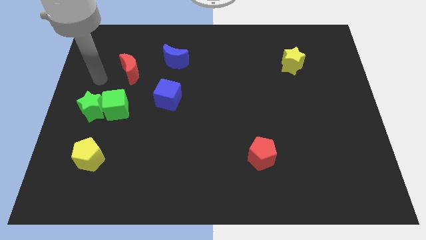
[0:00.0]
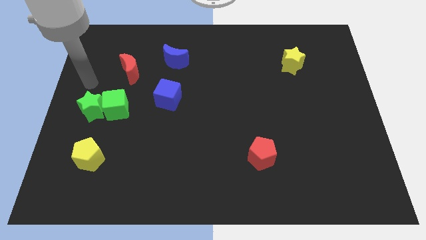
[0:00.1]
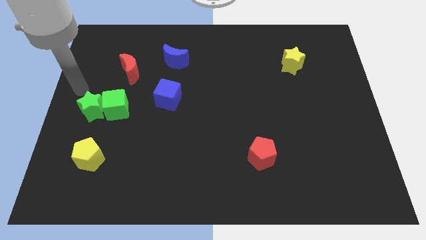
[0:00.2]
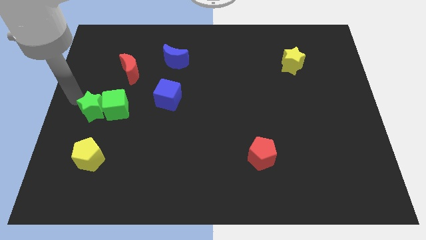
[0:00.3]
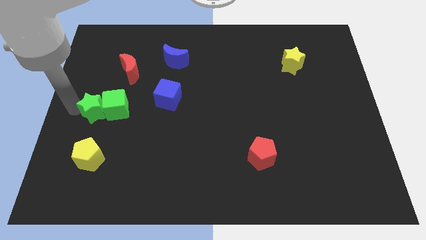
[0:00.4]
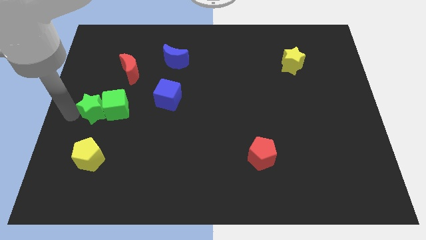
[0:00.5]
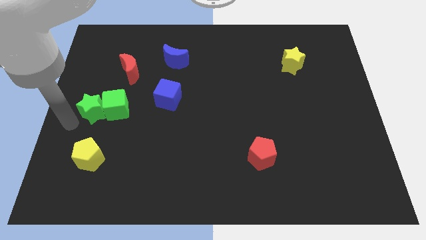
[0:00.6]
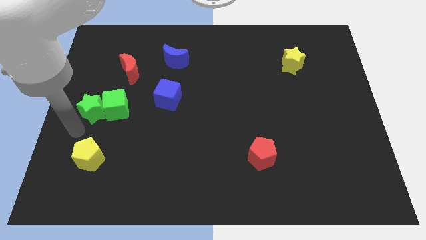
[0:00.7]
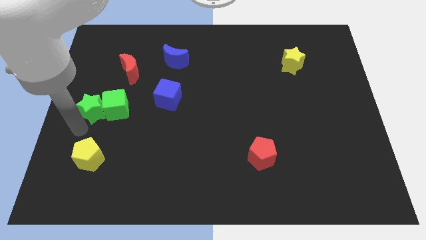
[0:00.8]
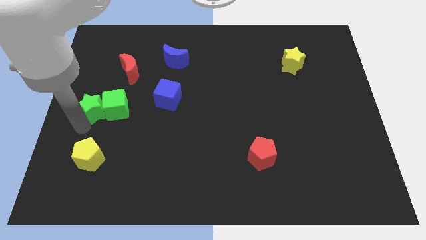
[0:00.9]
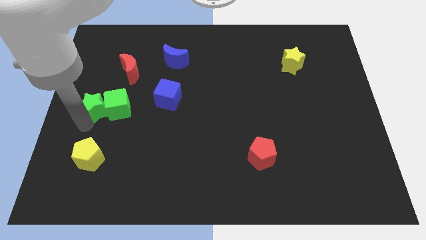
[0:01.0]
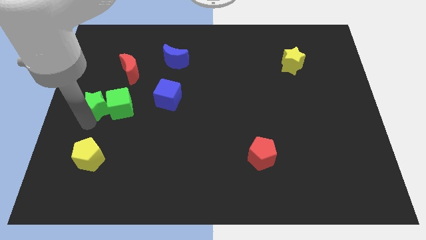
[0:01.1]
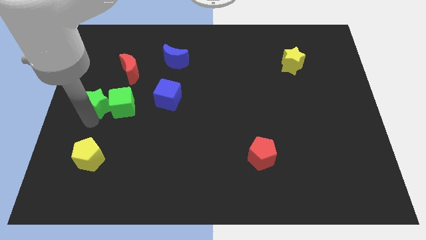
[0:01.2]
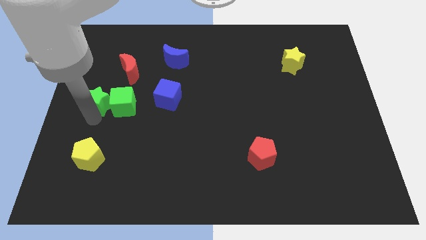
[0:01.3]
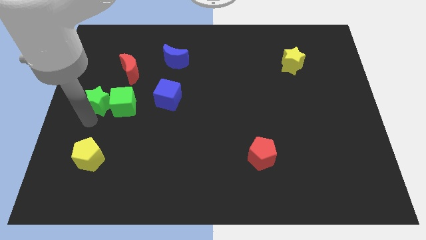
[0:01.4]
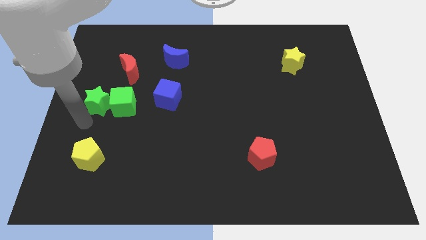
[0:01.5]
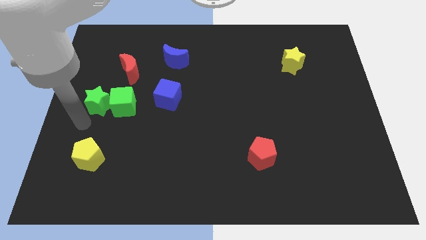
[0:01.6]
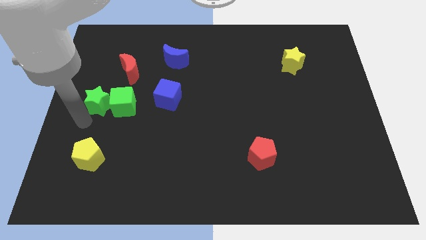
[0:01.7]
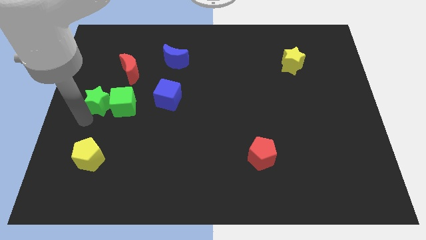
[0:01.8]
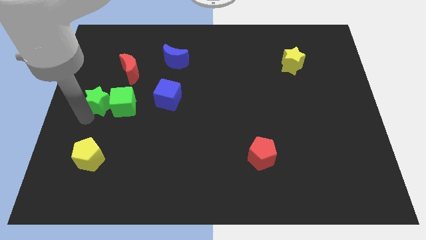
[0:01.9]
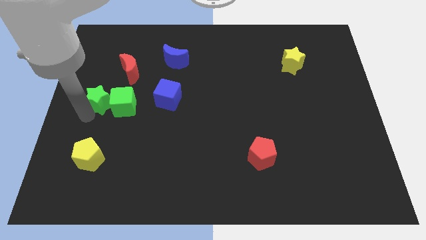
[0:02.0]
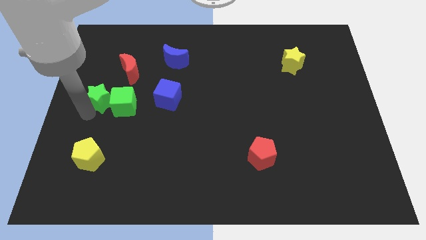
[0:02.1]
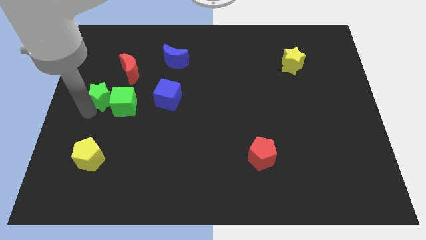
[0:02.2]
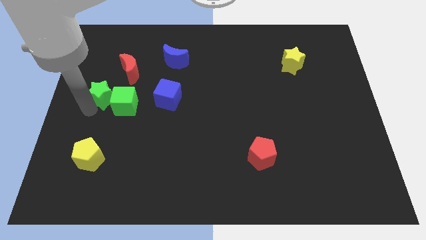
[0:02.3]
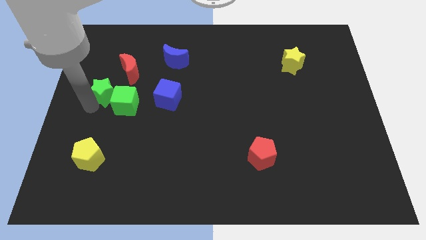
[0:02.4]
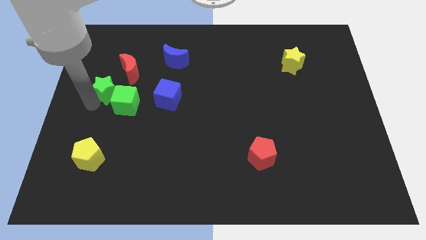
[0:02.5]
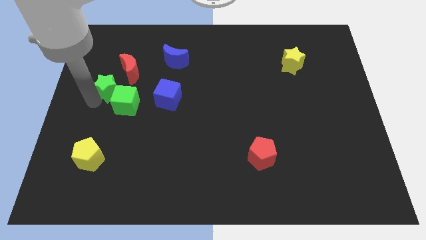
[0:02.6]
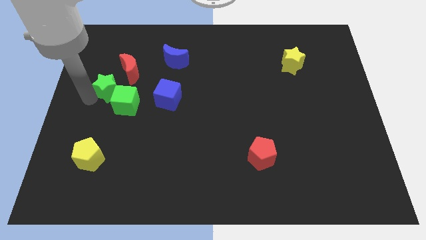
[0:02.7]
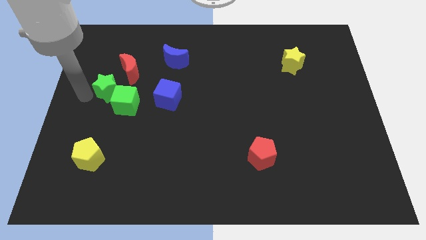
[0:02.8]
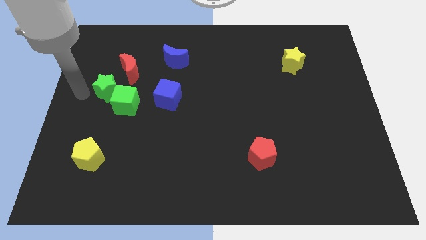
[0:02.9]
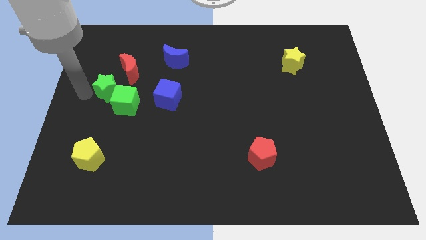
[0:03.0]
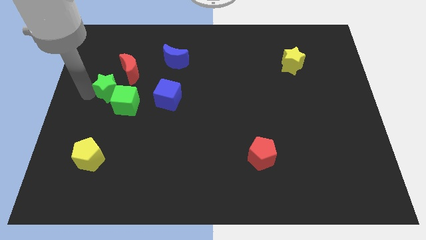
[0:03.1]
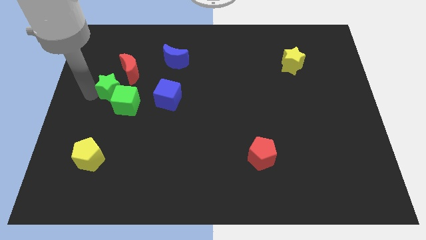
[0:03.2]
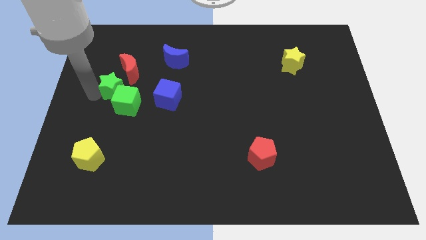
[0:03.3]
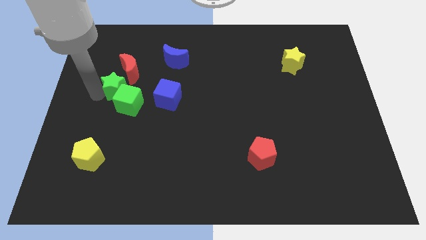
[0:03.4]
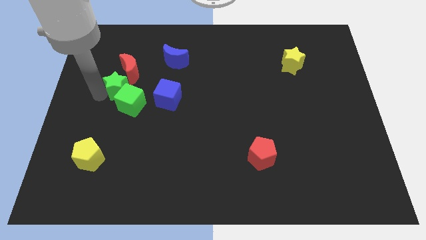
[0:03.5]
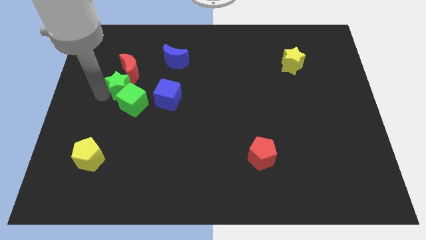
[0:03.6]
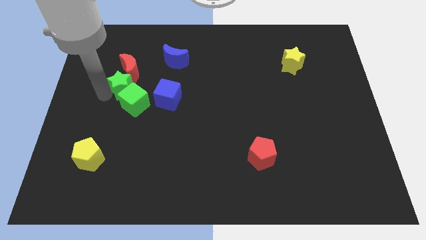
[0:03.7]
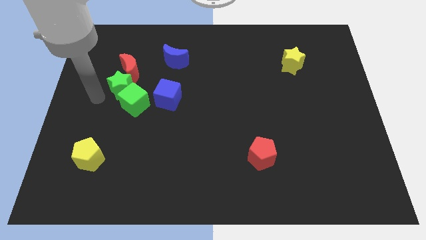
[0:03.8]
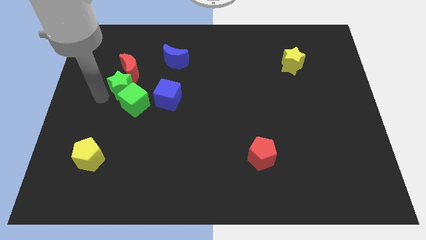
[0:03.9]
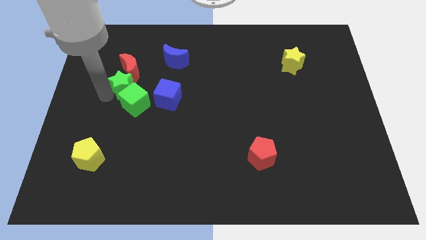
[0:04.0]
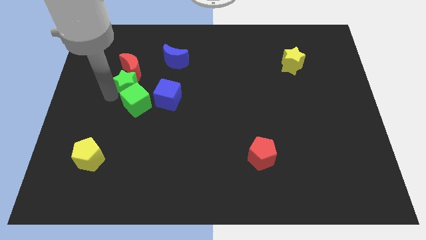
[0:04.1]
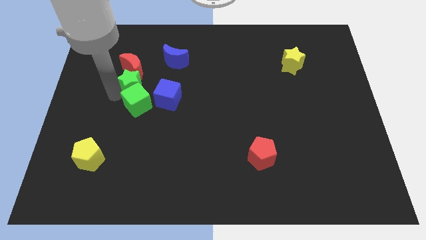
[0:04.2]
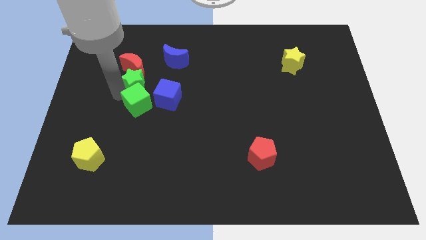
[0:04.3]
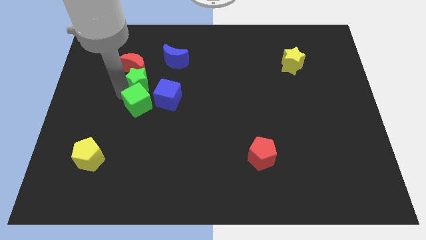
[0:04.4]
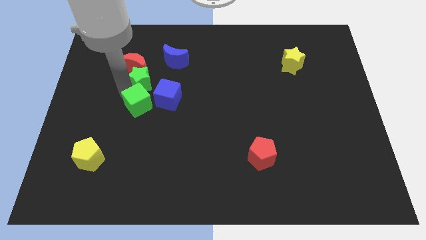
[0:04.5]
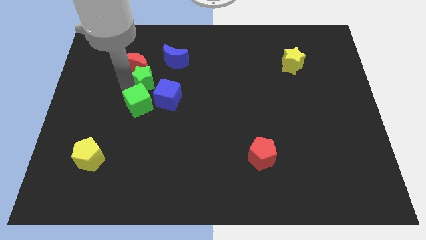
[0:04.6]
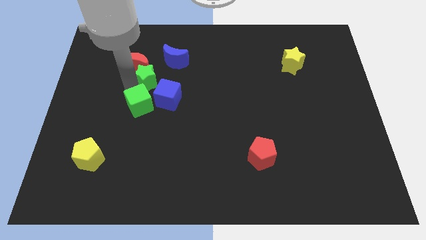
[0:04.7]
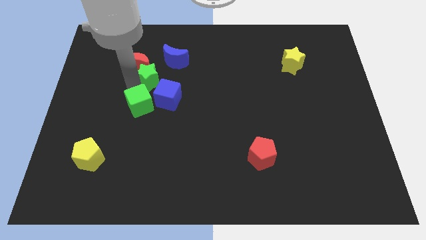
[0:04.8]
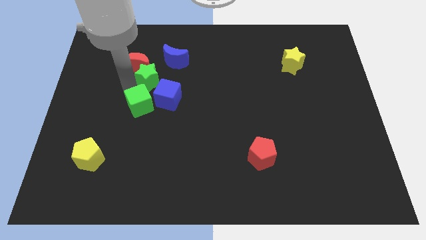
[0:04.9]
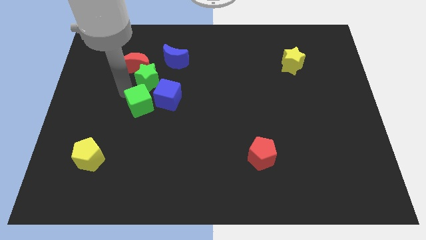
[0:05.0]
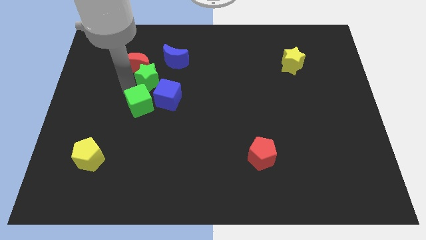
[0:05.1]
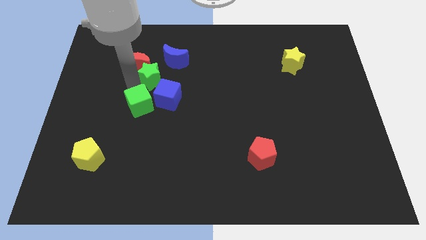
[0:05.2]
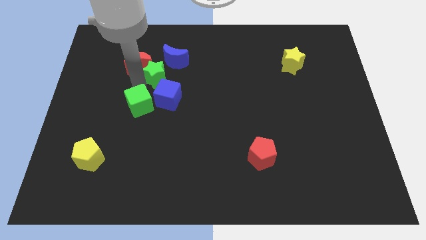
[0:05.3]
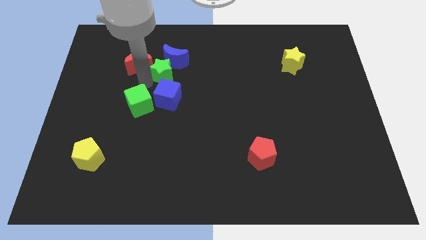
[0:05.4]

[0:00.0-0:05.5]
slide the green star to the blue moon

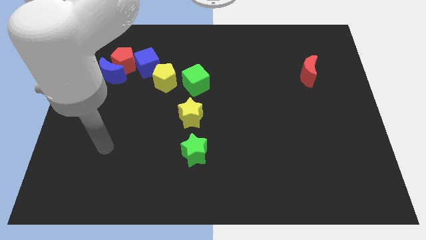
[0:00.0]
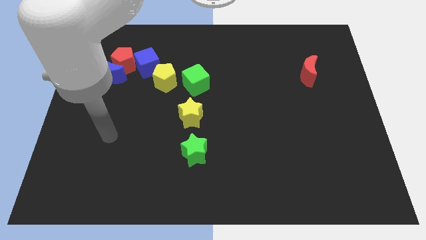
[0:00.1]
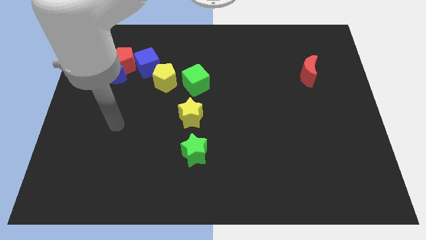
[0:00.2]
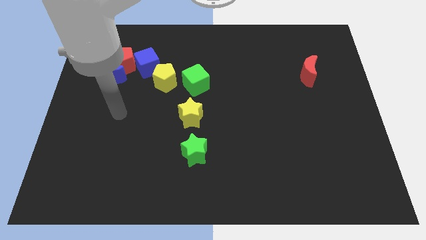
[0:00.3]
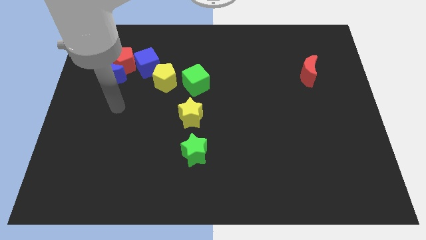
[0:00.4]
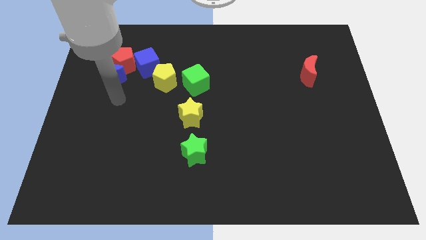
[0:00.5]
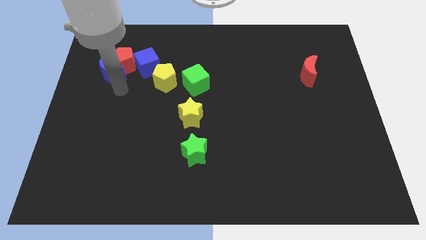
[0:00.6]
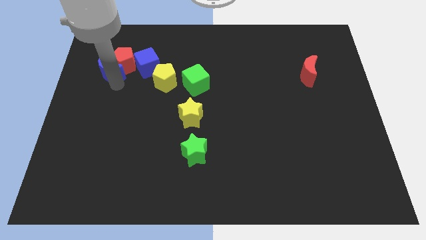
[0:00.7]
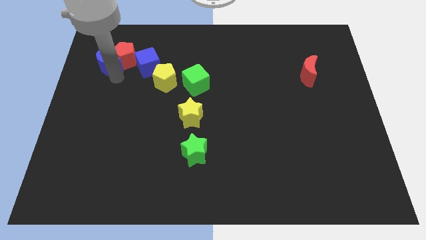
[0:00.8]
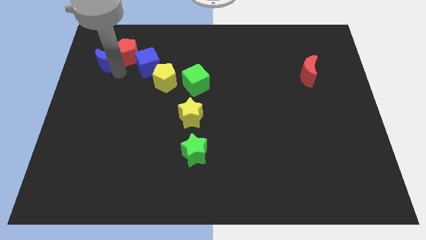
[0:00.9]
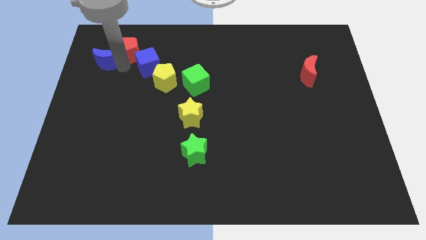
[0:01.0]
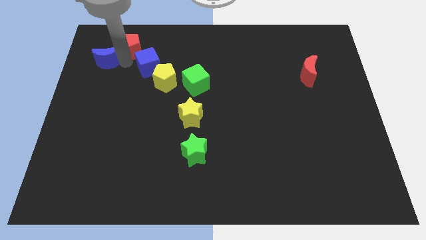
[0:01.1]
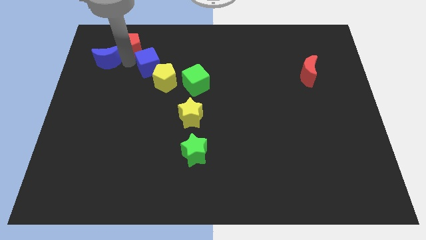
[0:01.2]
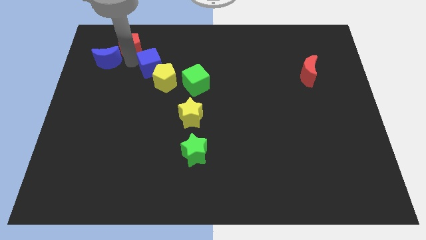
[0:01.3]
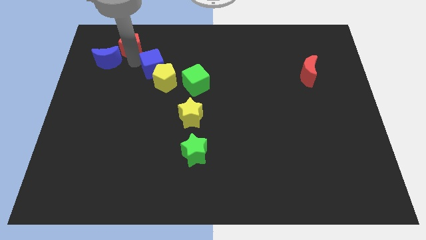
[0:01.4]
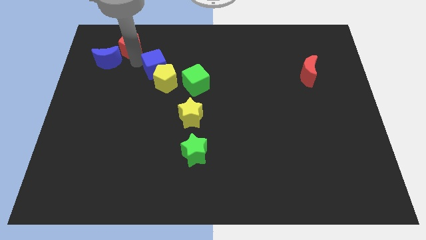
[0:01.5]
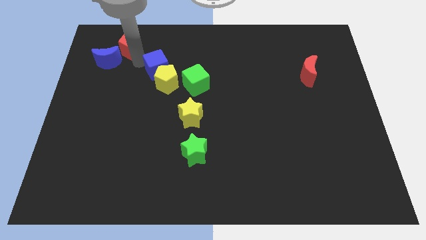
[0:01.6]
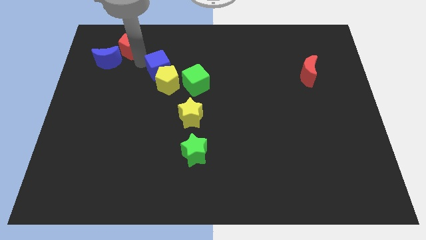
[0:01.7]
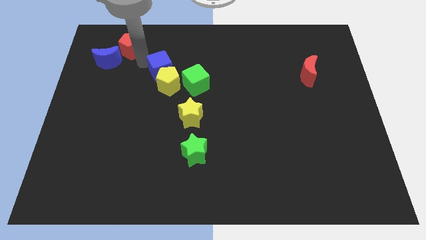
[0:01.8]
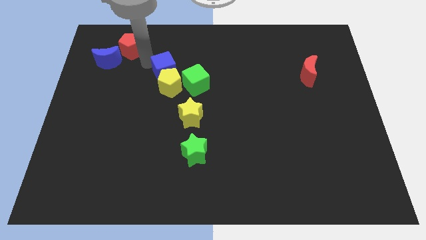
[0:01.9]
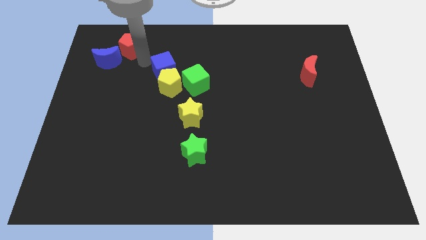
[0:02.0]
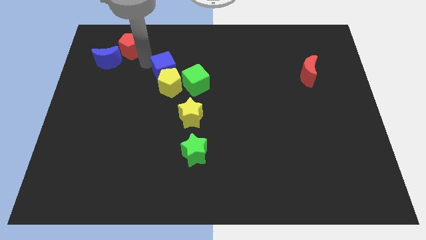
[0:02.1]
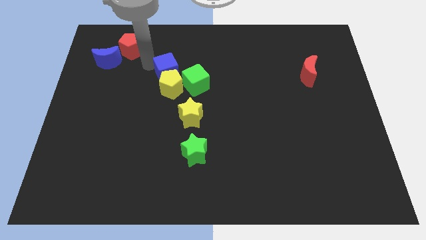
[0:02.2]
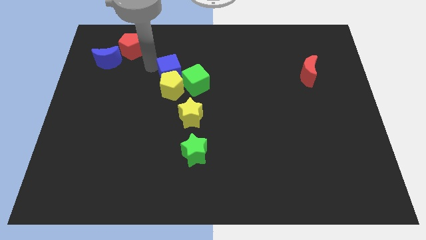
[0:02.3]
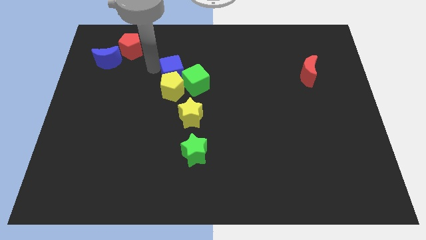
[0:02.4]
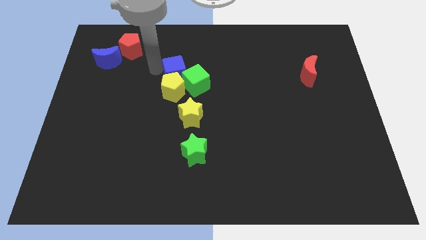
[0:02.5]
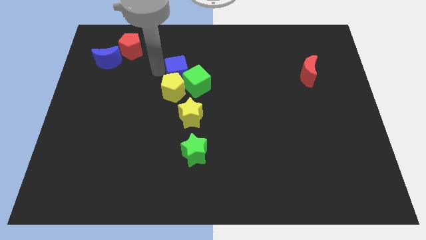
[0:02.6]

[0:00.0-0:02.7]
put the blue cube towards the green cube
